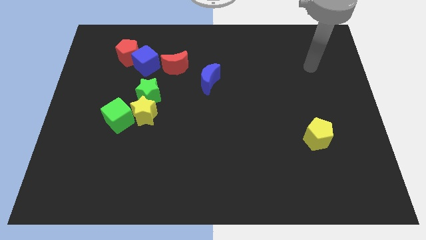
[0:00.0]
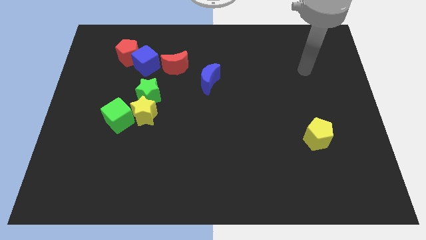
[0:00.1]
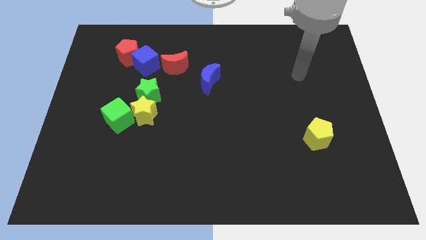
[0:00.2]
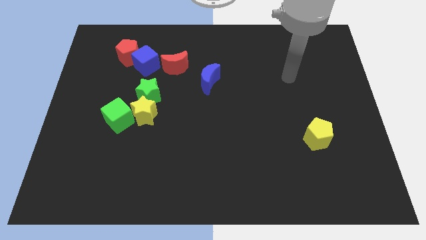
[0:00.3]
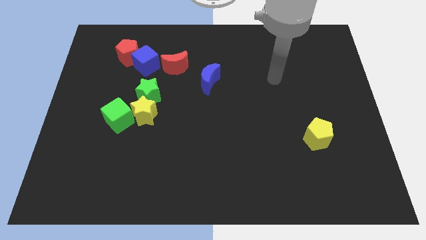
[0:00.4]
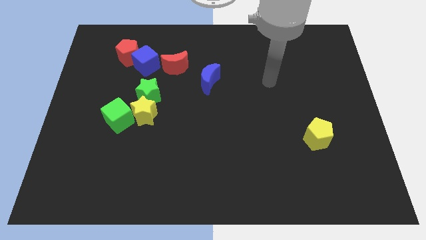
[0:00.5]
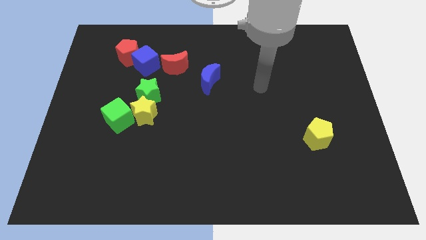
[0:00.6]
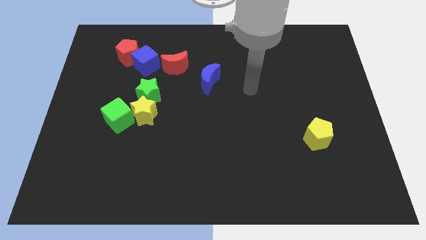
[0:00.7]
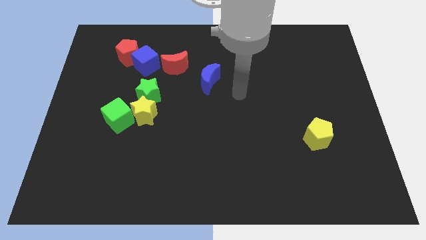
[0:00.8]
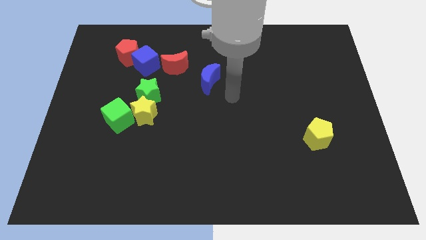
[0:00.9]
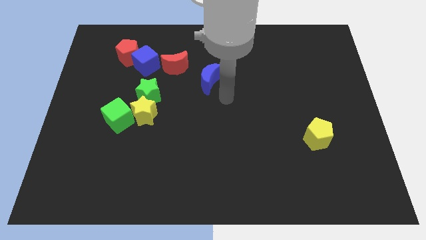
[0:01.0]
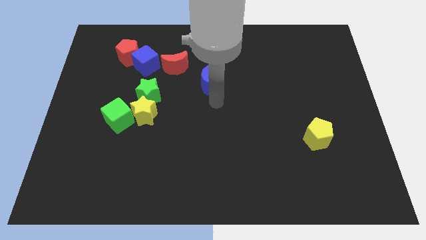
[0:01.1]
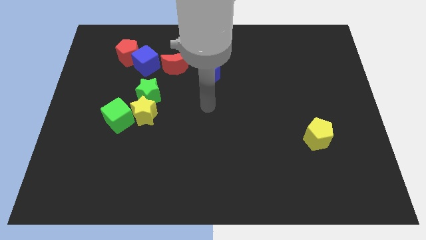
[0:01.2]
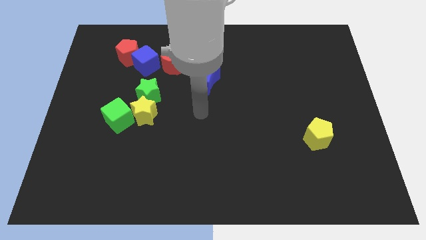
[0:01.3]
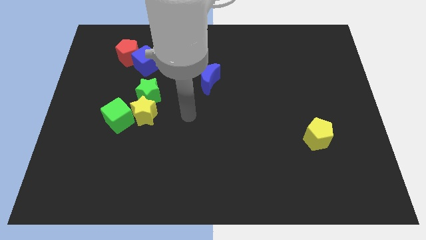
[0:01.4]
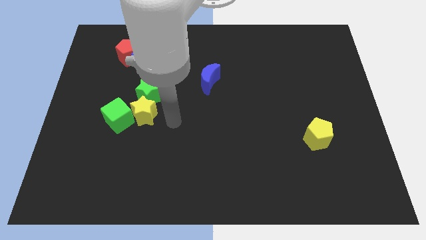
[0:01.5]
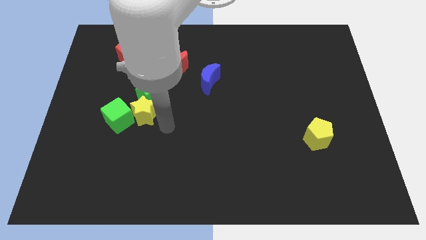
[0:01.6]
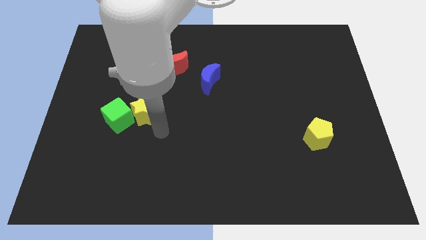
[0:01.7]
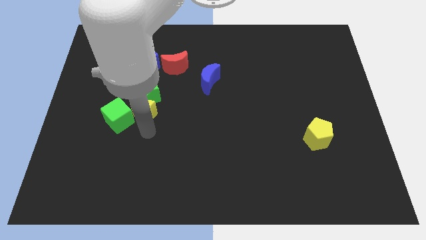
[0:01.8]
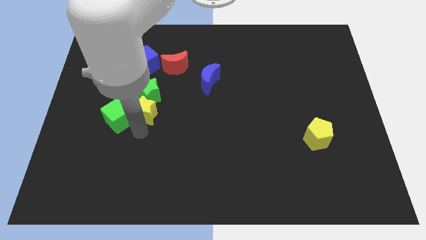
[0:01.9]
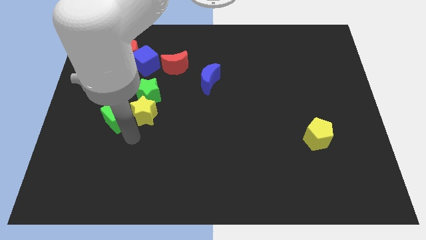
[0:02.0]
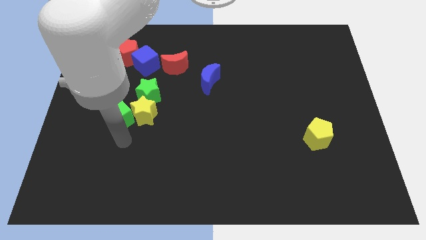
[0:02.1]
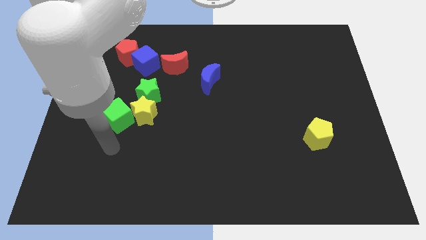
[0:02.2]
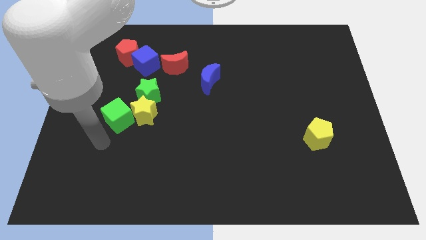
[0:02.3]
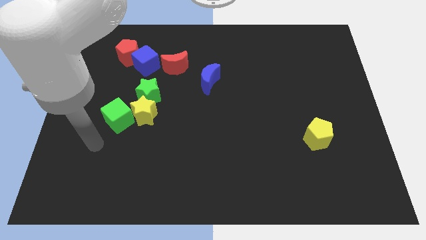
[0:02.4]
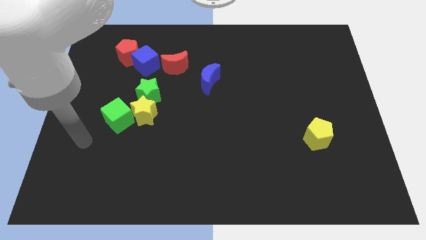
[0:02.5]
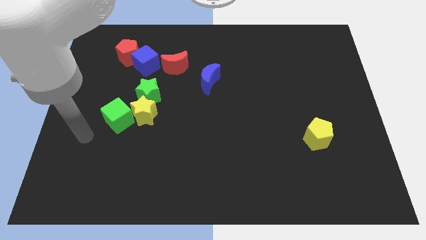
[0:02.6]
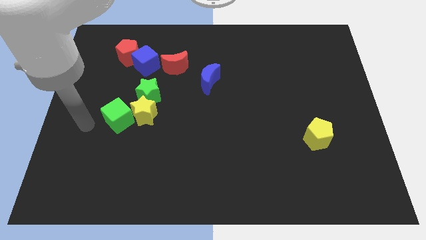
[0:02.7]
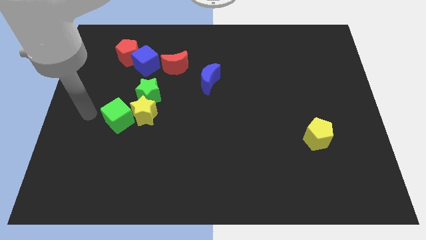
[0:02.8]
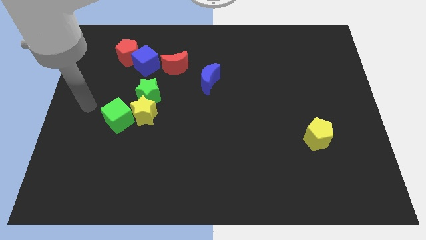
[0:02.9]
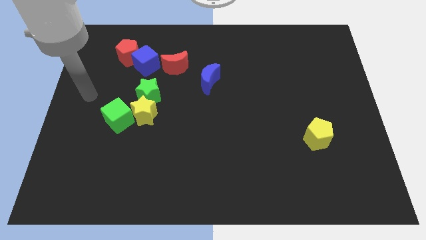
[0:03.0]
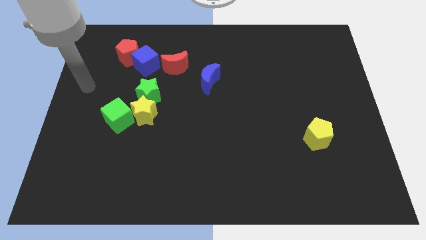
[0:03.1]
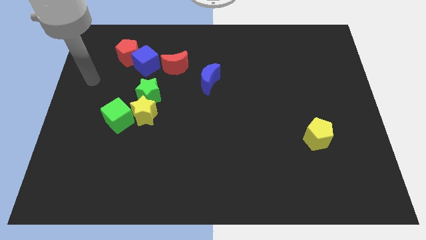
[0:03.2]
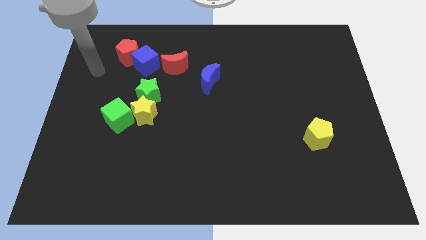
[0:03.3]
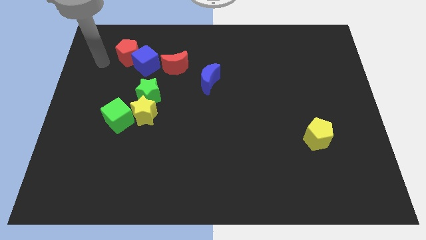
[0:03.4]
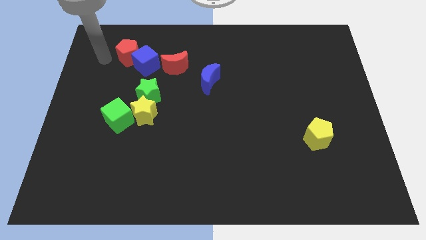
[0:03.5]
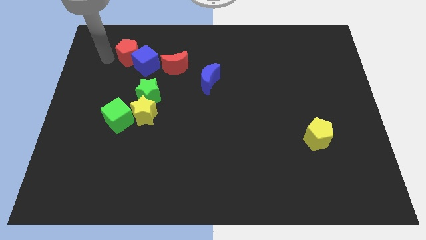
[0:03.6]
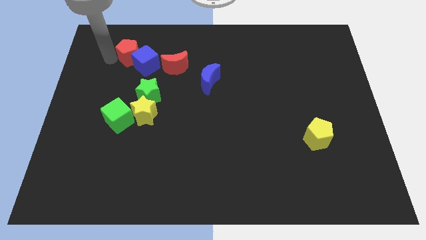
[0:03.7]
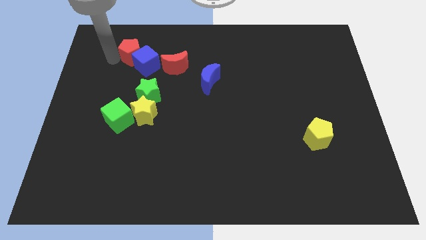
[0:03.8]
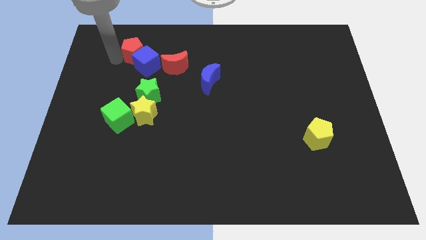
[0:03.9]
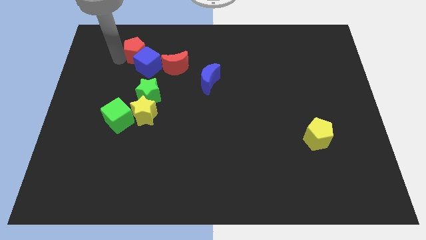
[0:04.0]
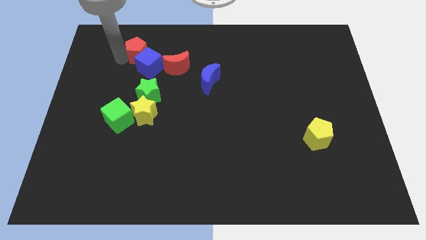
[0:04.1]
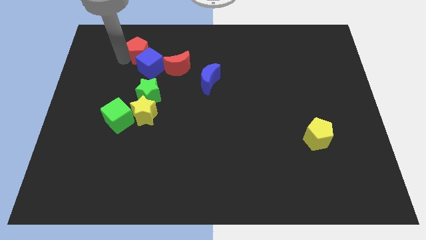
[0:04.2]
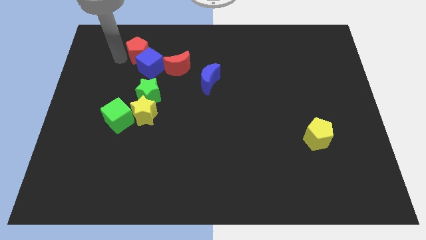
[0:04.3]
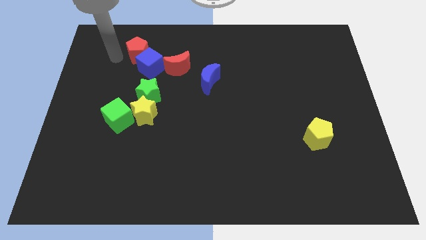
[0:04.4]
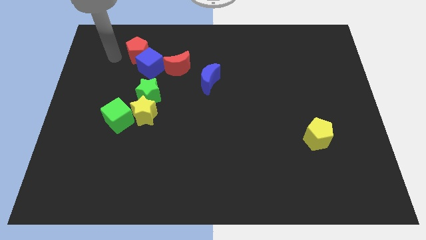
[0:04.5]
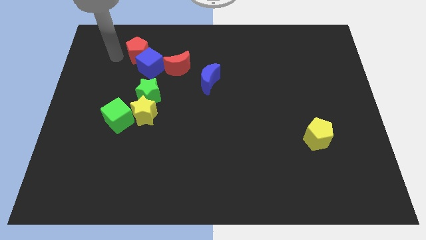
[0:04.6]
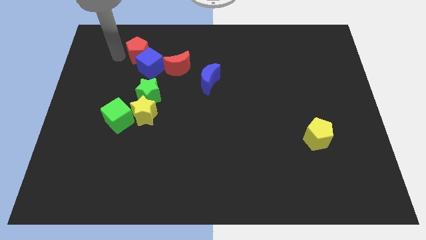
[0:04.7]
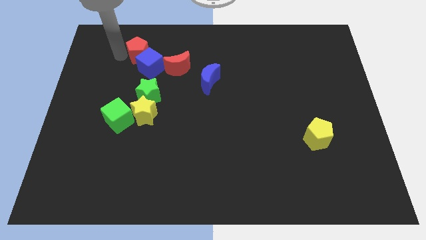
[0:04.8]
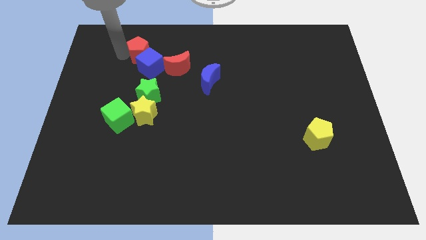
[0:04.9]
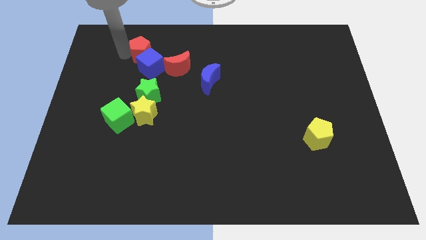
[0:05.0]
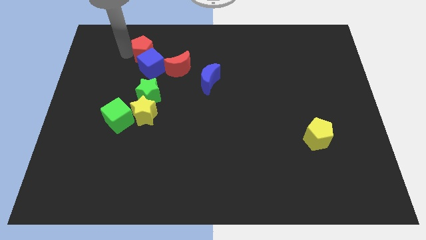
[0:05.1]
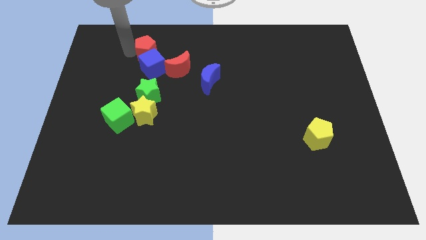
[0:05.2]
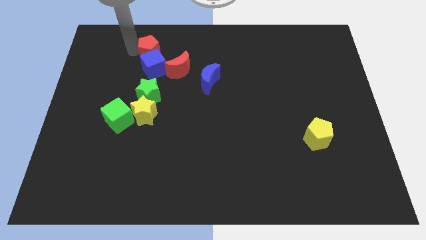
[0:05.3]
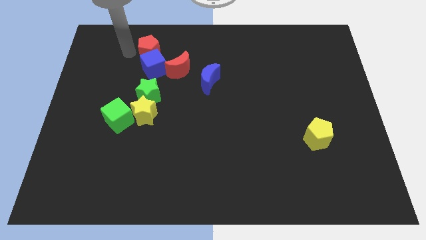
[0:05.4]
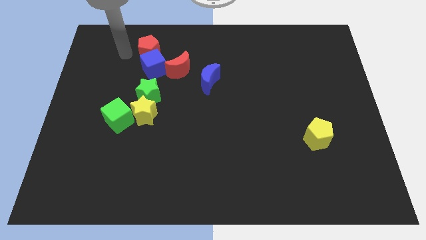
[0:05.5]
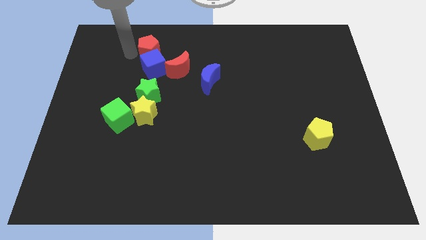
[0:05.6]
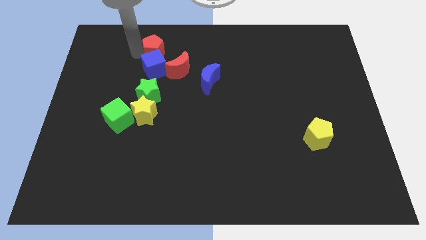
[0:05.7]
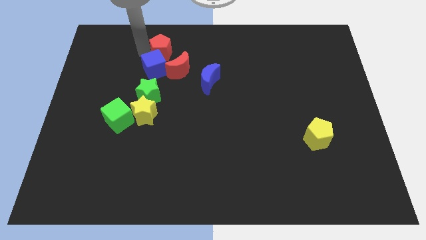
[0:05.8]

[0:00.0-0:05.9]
push the red pentagon a little right

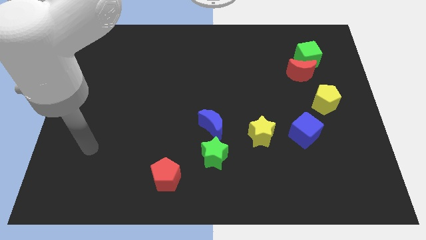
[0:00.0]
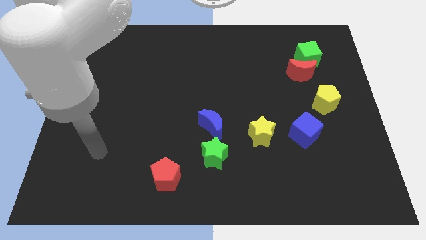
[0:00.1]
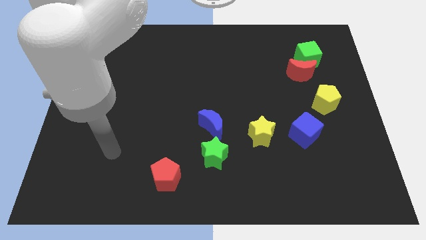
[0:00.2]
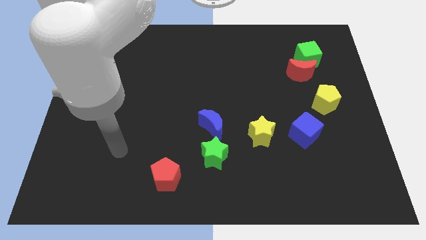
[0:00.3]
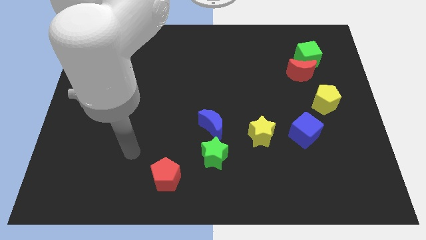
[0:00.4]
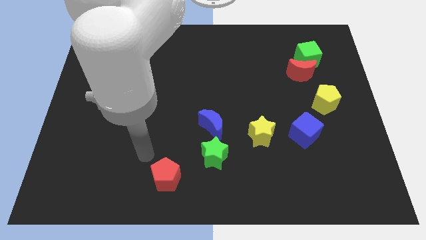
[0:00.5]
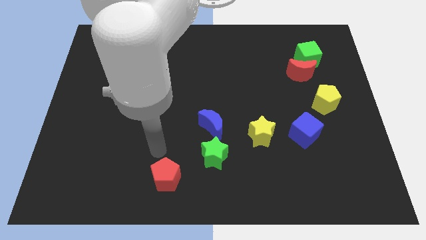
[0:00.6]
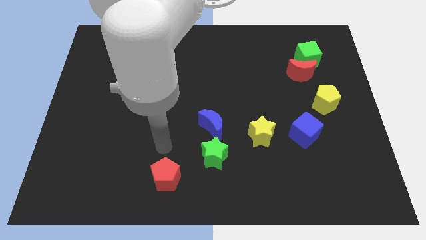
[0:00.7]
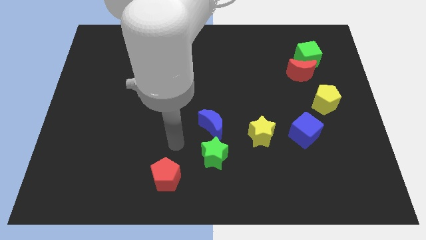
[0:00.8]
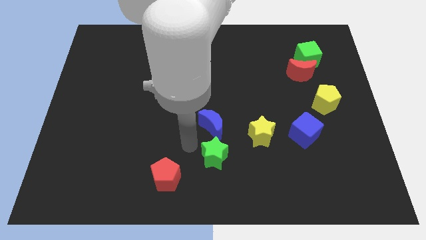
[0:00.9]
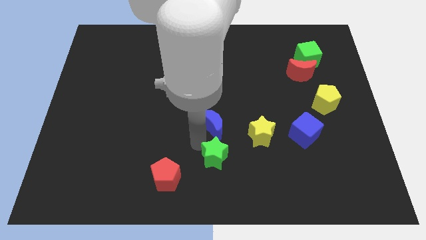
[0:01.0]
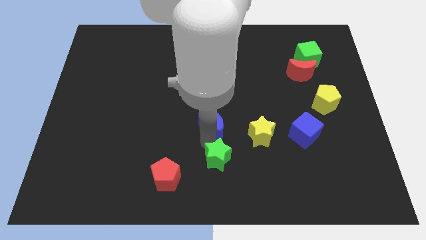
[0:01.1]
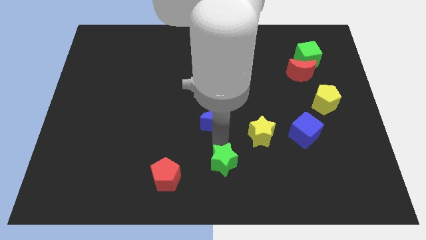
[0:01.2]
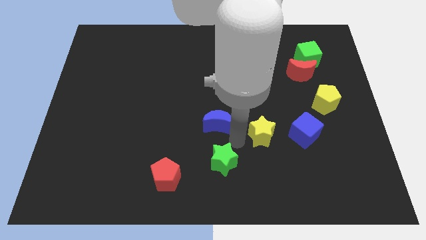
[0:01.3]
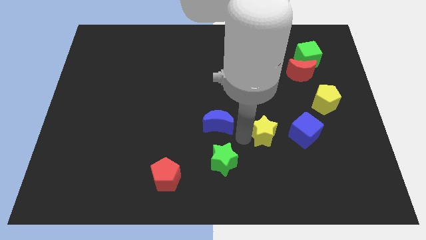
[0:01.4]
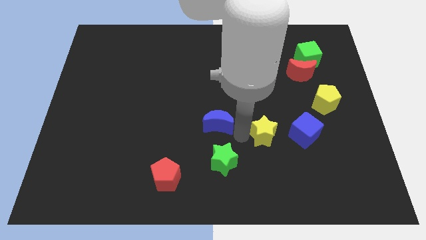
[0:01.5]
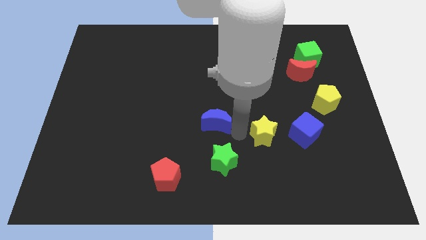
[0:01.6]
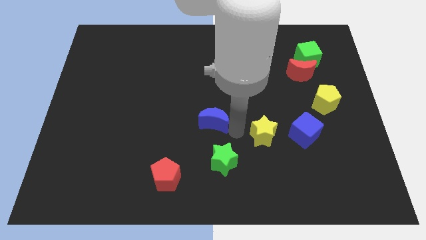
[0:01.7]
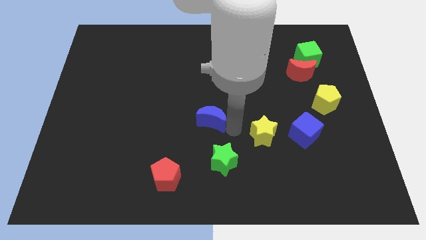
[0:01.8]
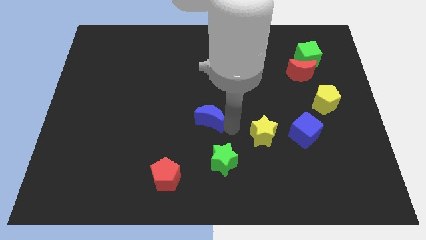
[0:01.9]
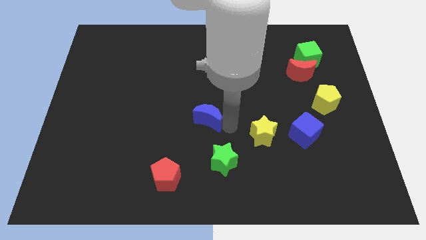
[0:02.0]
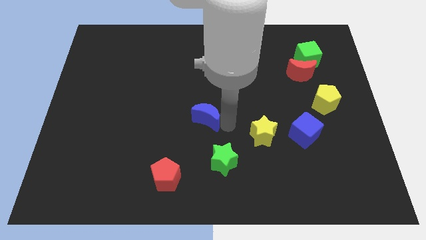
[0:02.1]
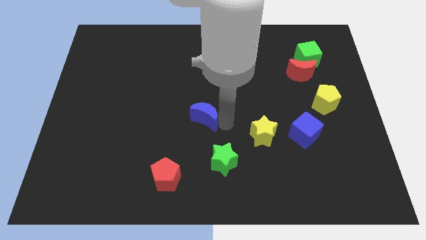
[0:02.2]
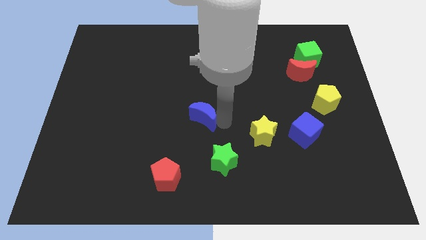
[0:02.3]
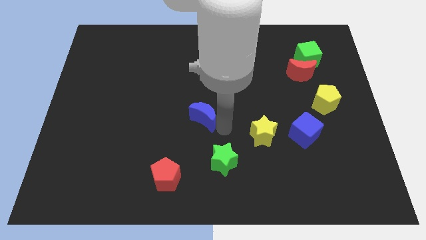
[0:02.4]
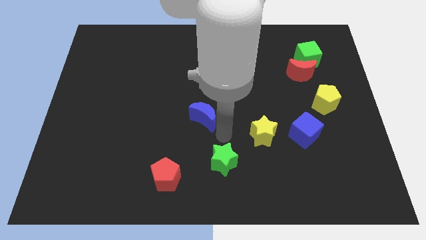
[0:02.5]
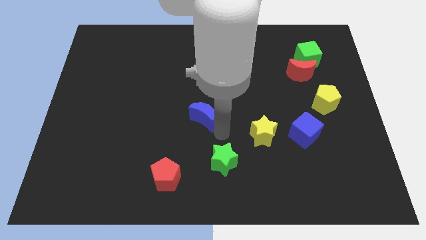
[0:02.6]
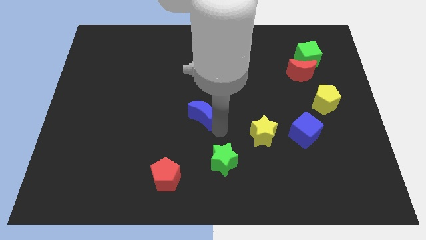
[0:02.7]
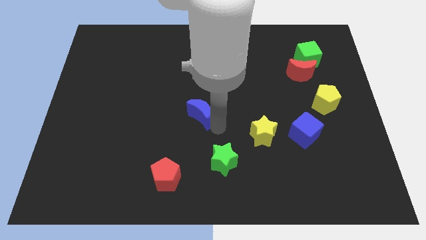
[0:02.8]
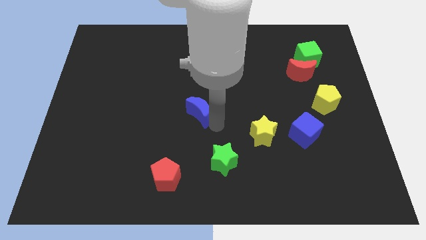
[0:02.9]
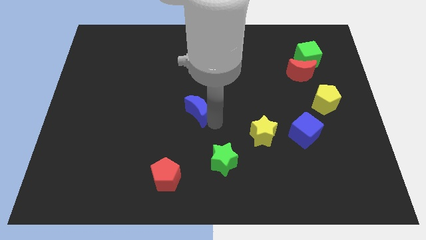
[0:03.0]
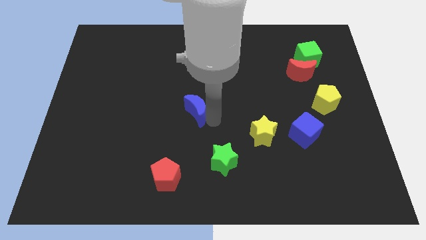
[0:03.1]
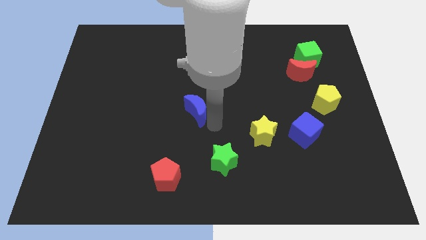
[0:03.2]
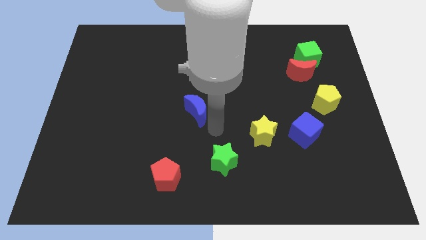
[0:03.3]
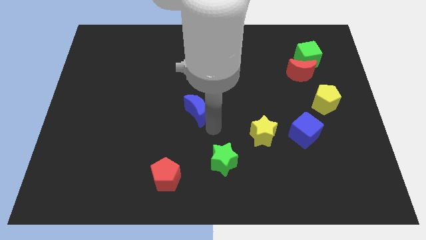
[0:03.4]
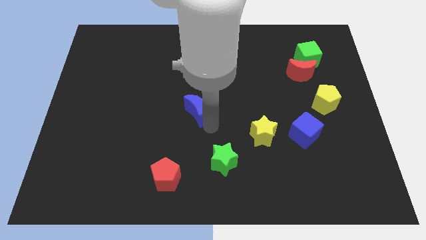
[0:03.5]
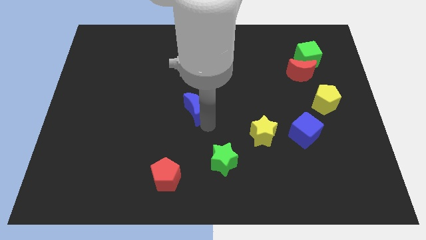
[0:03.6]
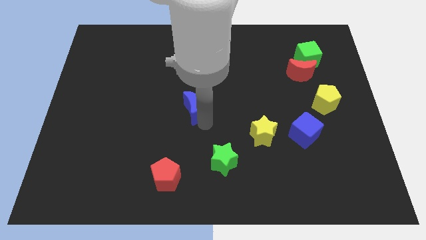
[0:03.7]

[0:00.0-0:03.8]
slightly slide the blue moon diagonally up and to the left
